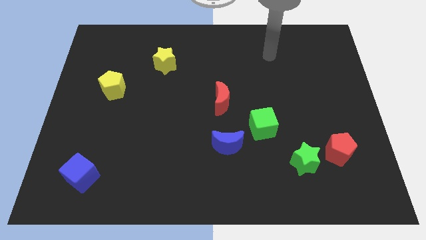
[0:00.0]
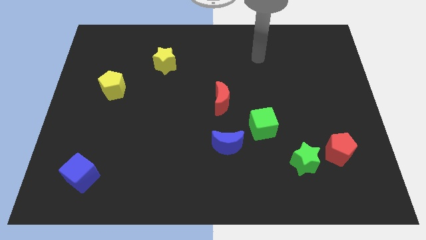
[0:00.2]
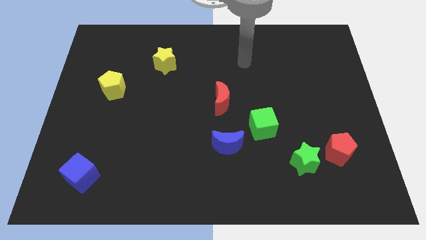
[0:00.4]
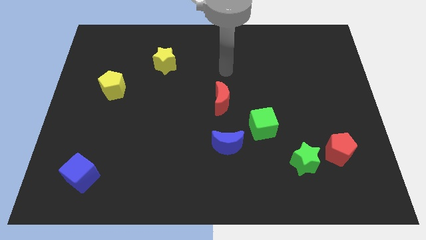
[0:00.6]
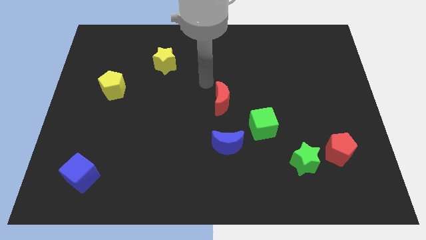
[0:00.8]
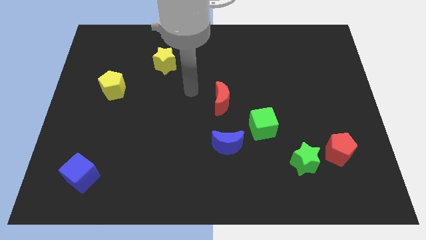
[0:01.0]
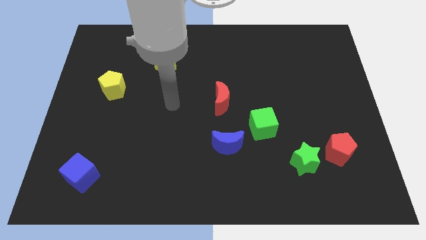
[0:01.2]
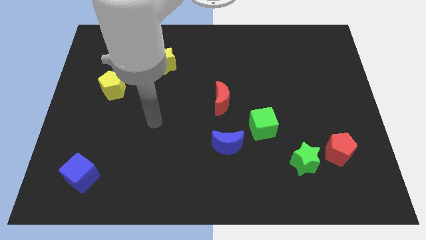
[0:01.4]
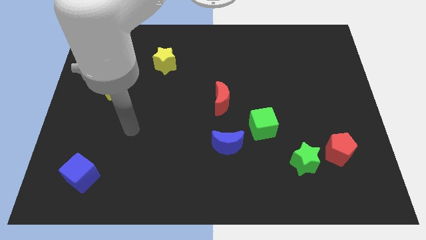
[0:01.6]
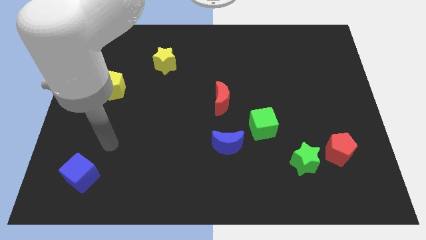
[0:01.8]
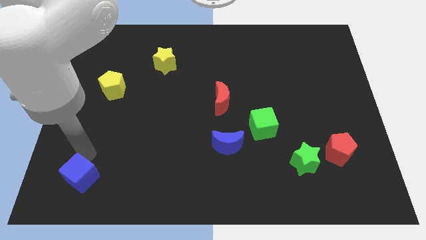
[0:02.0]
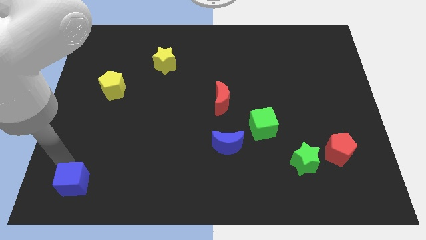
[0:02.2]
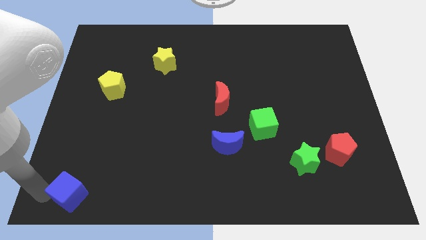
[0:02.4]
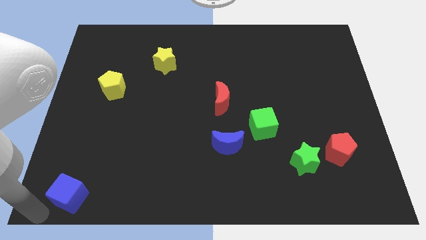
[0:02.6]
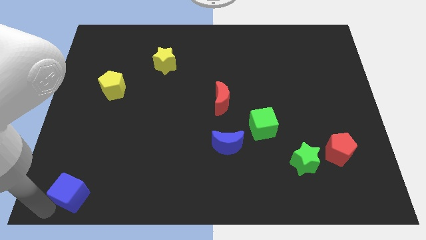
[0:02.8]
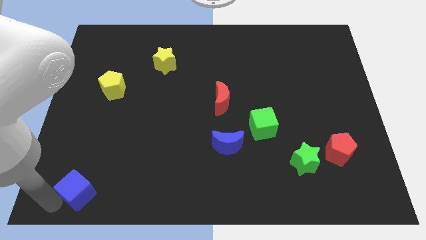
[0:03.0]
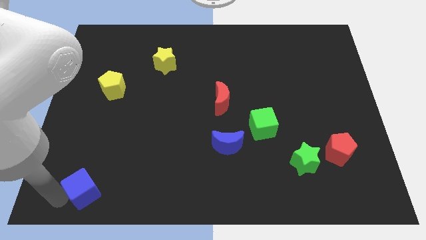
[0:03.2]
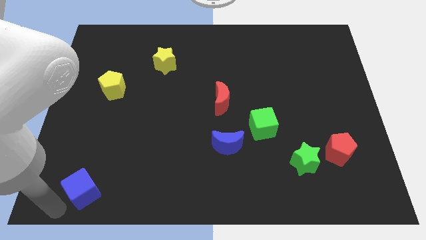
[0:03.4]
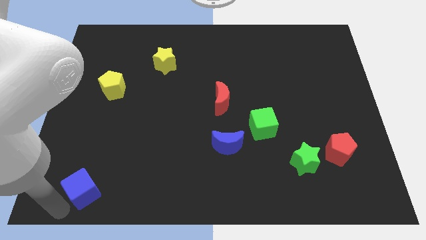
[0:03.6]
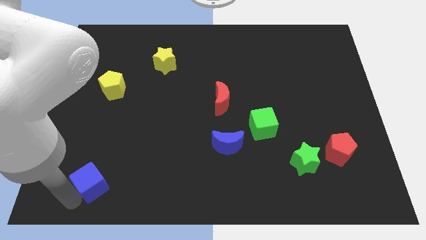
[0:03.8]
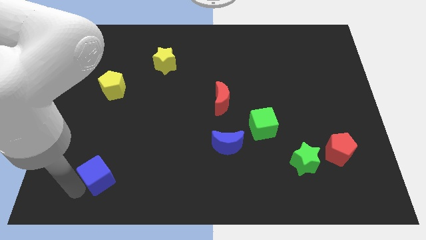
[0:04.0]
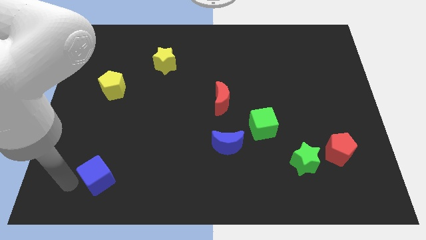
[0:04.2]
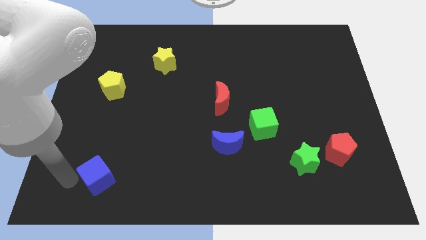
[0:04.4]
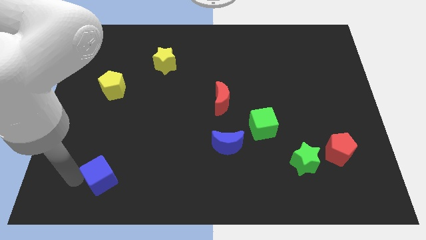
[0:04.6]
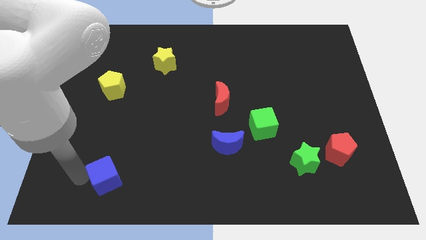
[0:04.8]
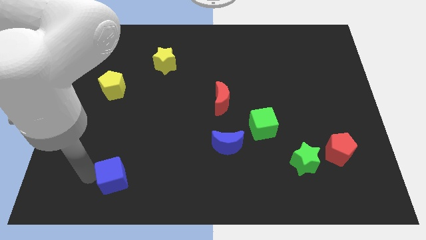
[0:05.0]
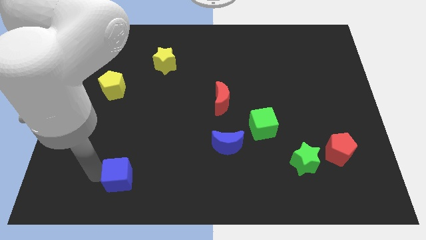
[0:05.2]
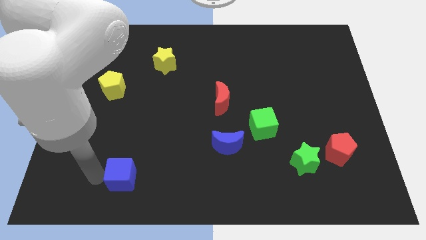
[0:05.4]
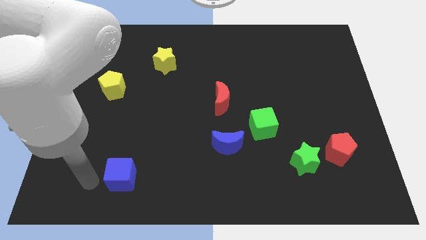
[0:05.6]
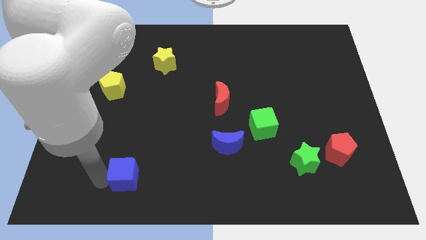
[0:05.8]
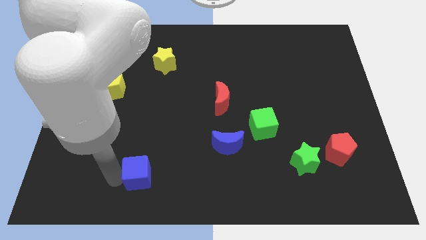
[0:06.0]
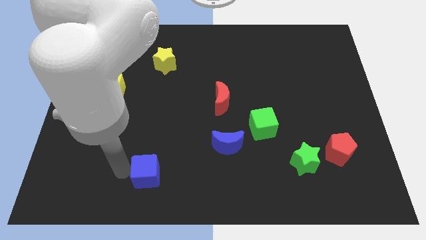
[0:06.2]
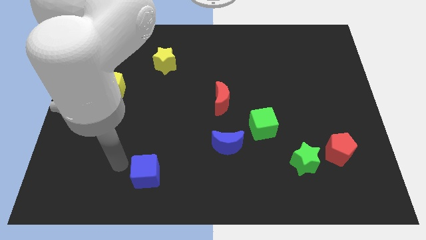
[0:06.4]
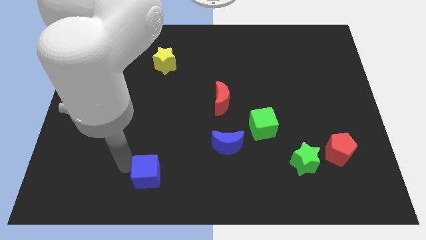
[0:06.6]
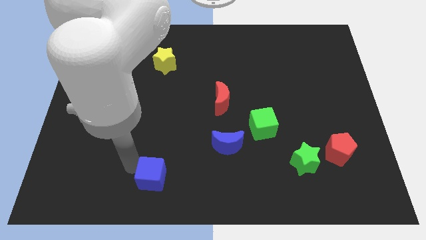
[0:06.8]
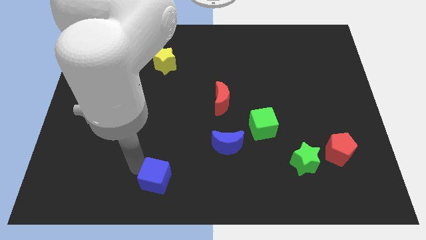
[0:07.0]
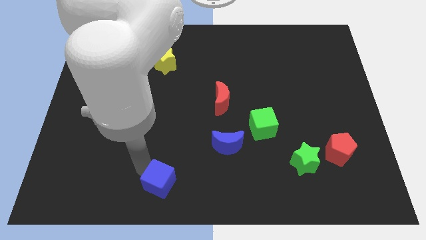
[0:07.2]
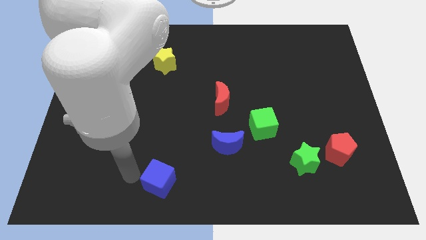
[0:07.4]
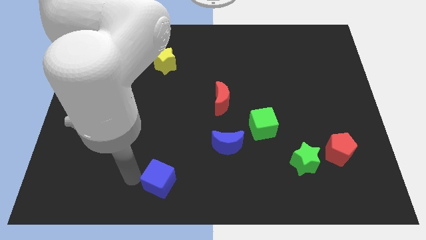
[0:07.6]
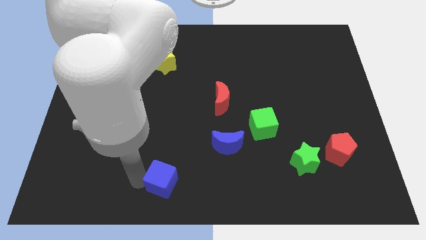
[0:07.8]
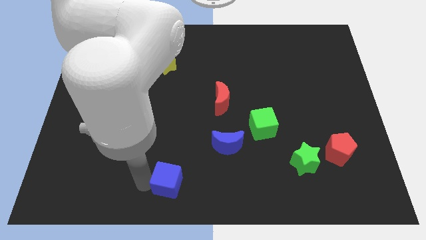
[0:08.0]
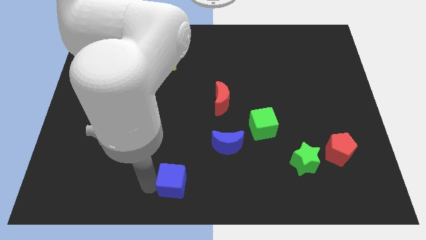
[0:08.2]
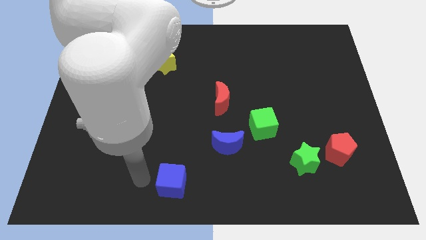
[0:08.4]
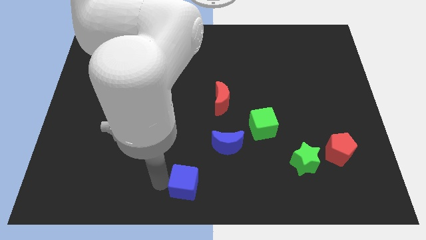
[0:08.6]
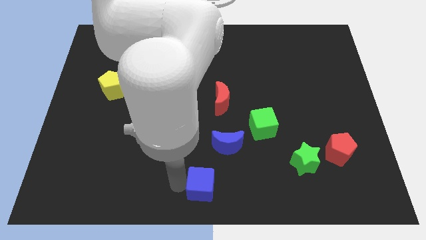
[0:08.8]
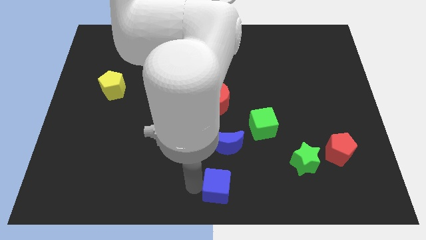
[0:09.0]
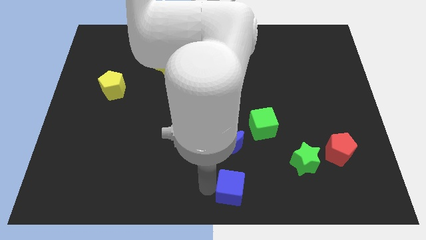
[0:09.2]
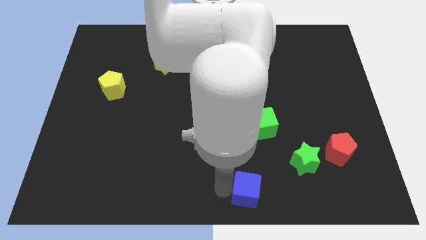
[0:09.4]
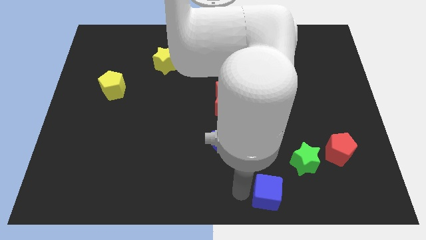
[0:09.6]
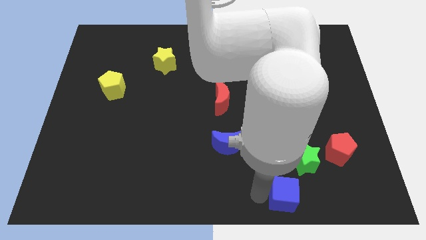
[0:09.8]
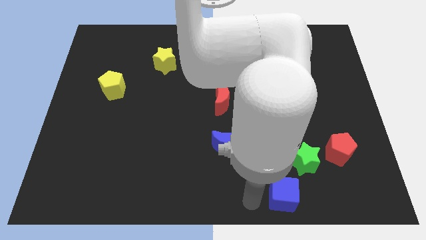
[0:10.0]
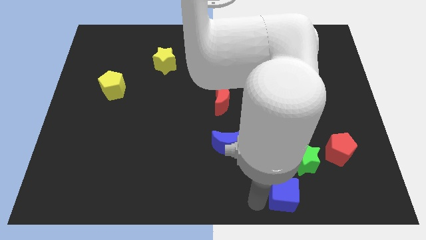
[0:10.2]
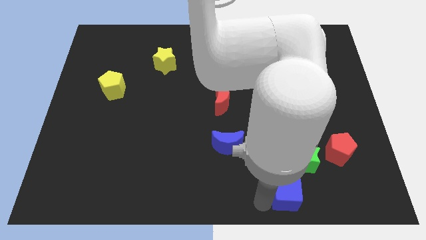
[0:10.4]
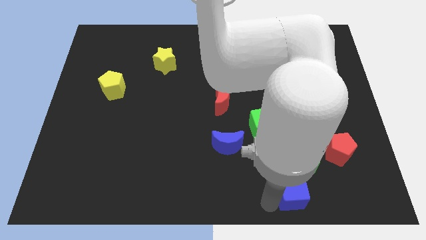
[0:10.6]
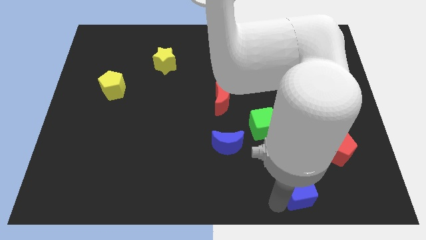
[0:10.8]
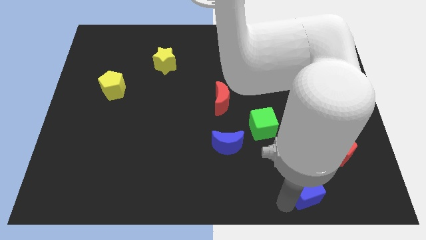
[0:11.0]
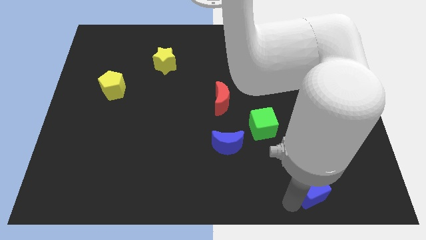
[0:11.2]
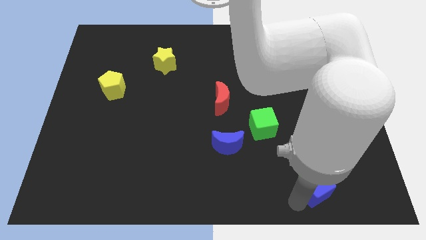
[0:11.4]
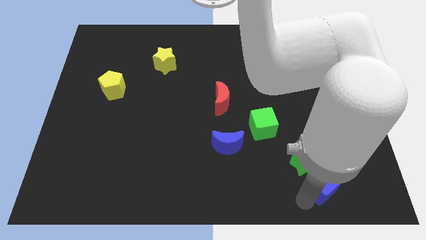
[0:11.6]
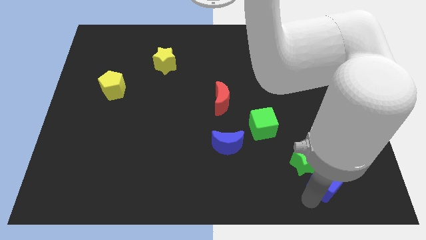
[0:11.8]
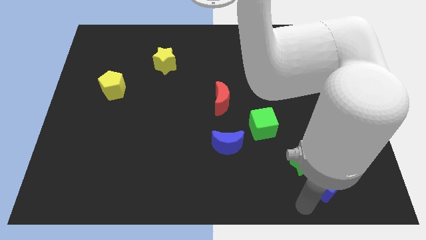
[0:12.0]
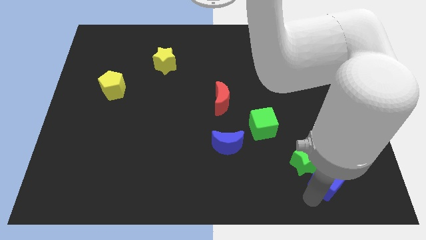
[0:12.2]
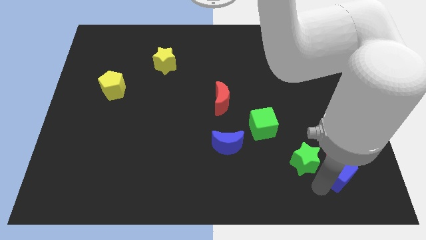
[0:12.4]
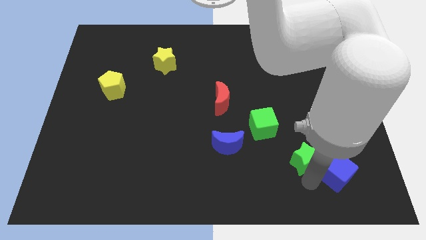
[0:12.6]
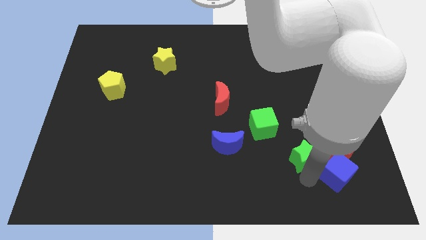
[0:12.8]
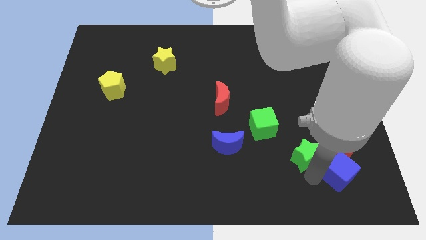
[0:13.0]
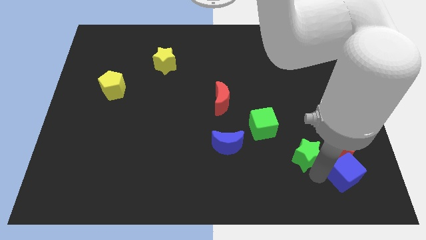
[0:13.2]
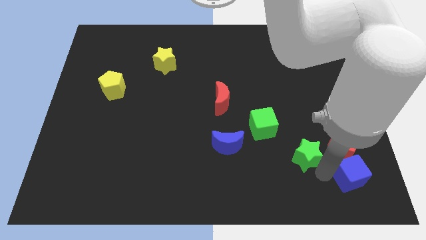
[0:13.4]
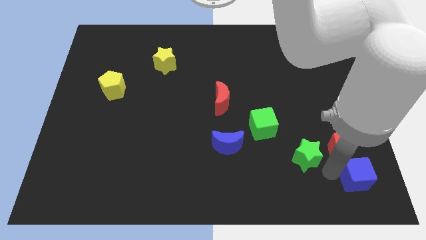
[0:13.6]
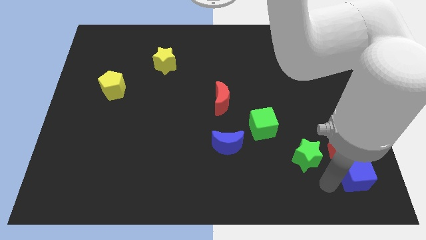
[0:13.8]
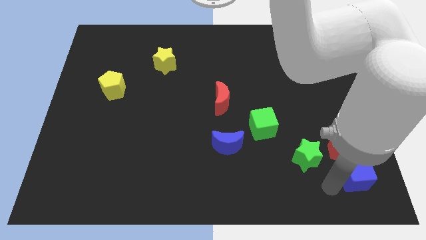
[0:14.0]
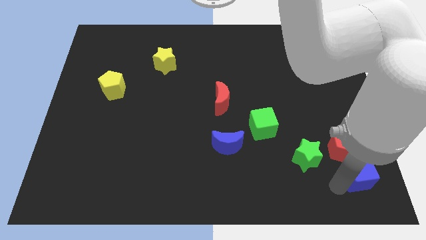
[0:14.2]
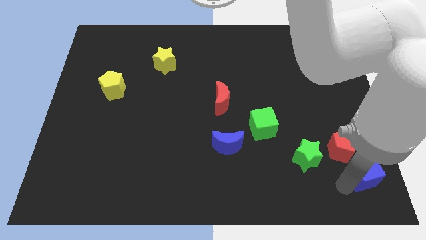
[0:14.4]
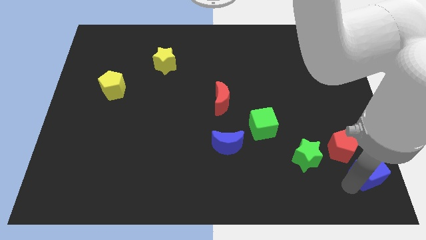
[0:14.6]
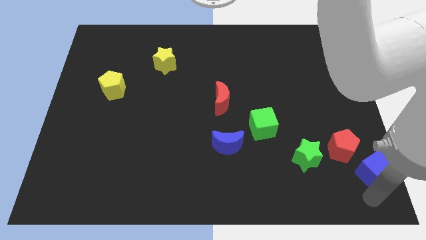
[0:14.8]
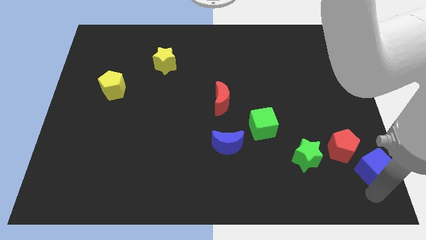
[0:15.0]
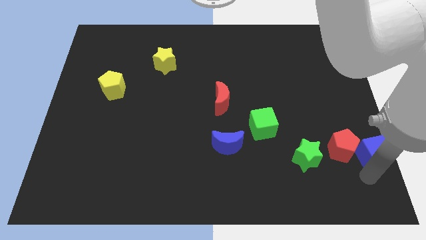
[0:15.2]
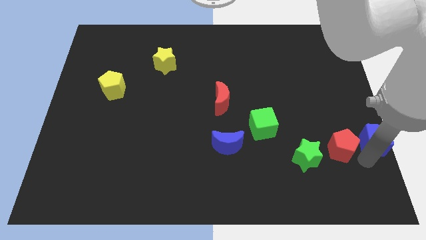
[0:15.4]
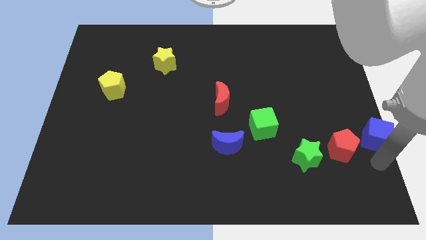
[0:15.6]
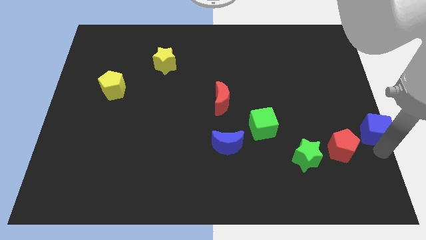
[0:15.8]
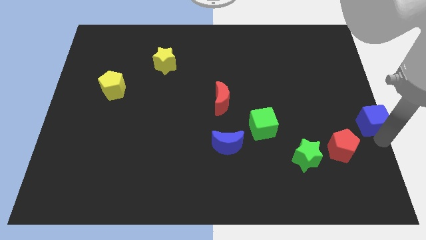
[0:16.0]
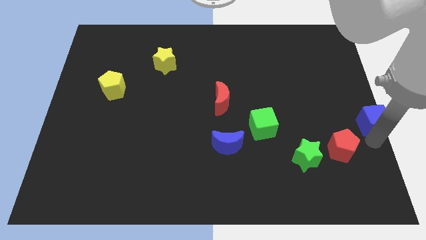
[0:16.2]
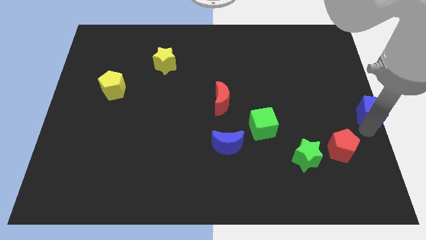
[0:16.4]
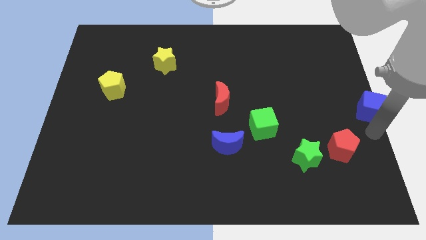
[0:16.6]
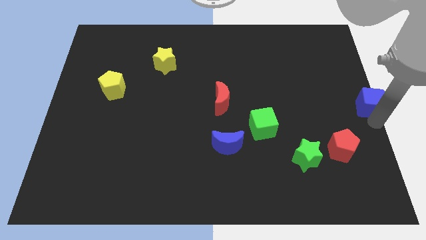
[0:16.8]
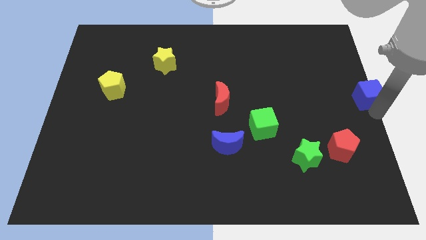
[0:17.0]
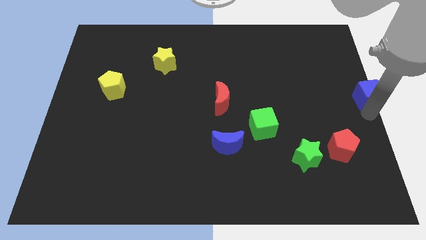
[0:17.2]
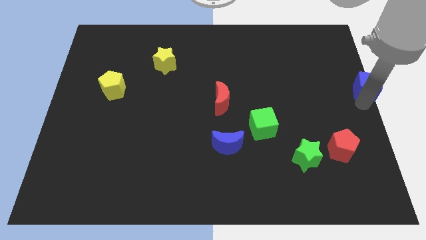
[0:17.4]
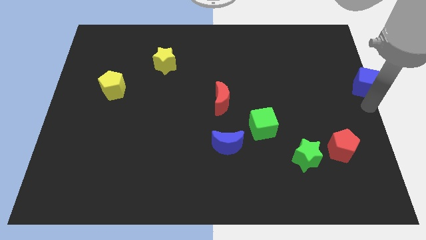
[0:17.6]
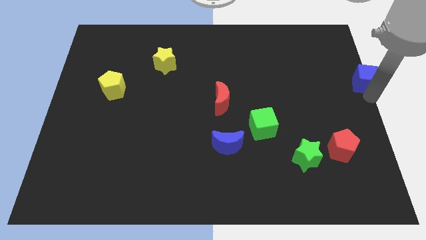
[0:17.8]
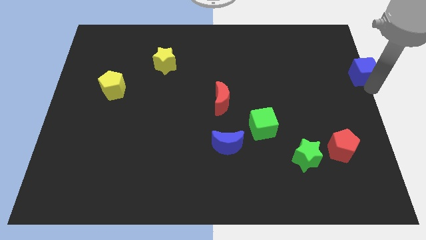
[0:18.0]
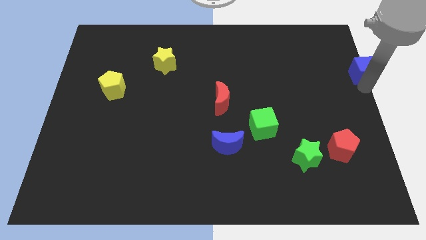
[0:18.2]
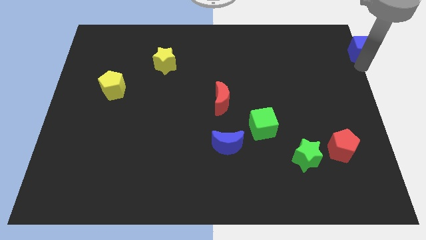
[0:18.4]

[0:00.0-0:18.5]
move the blue cube to the upper right corner
